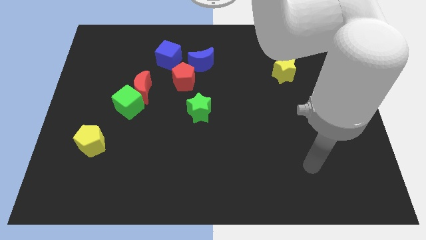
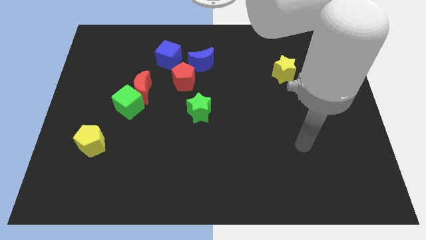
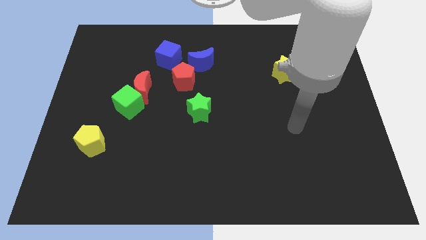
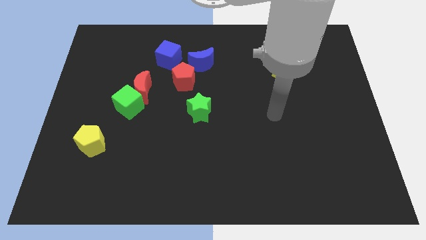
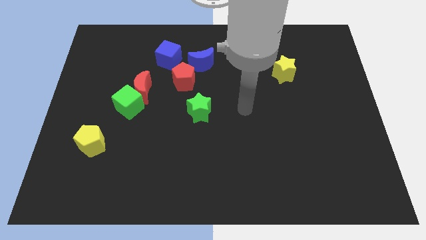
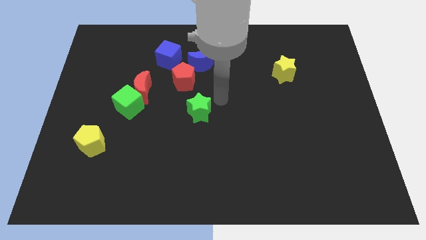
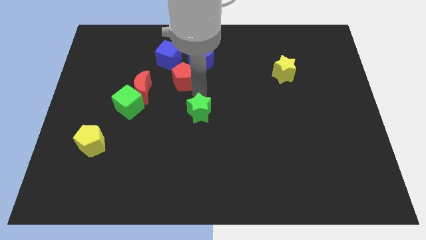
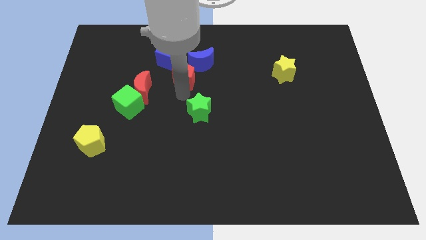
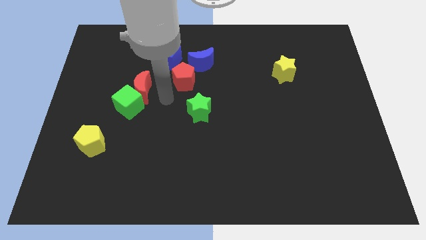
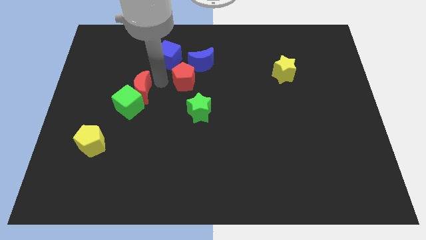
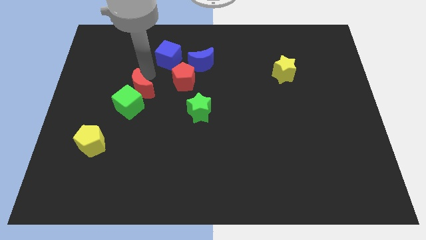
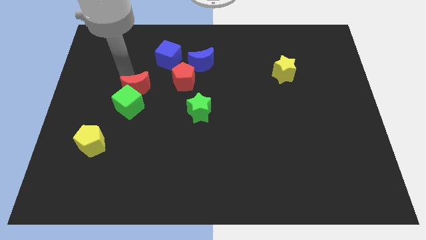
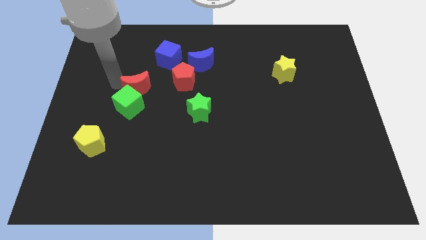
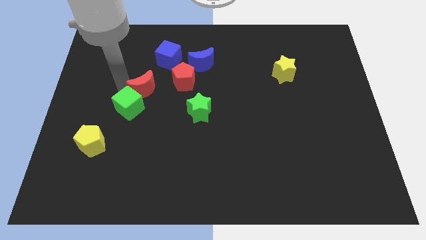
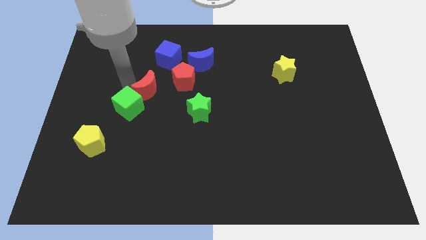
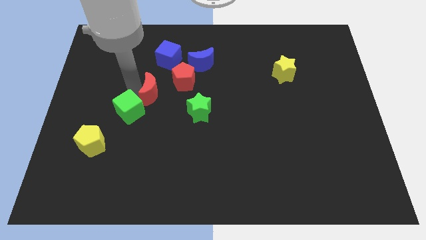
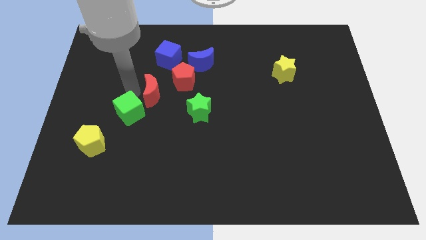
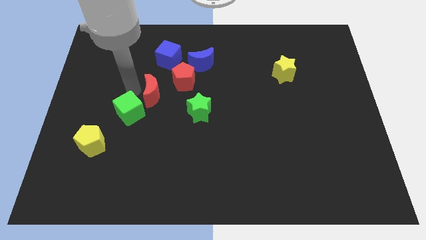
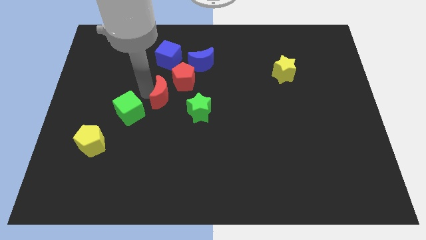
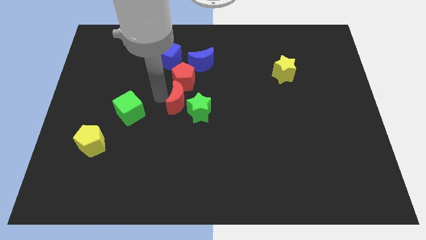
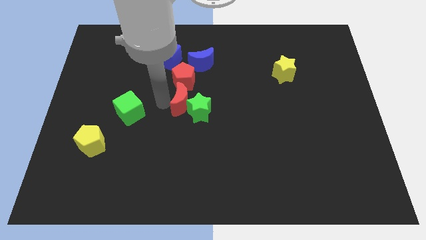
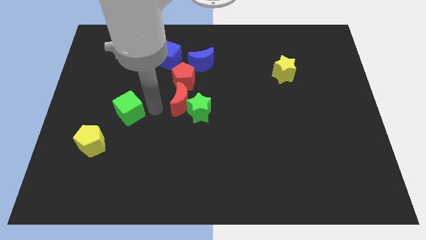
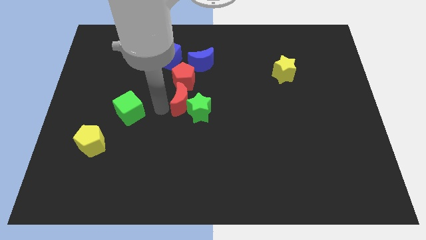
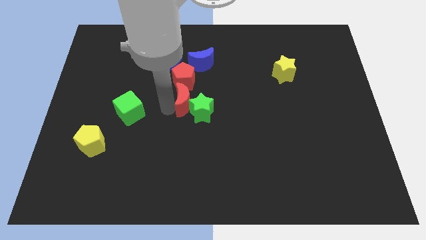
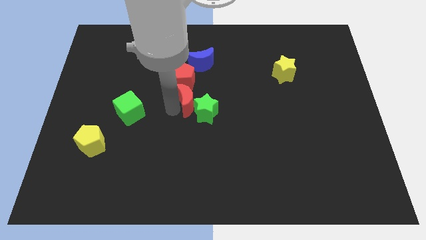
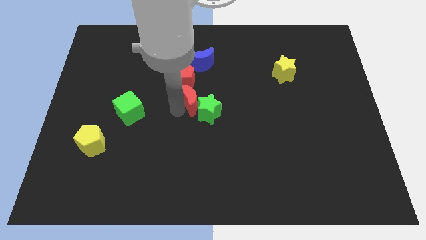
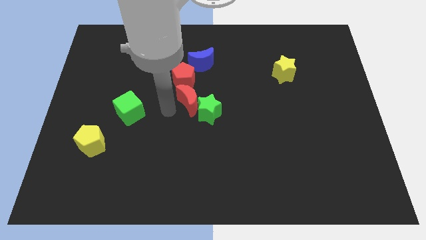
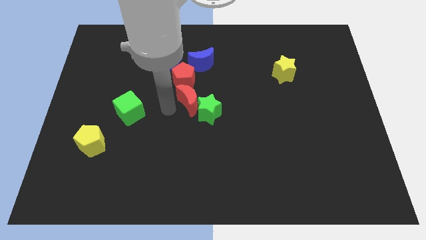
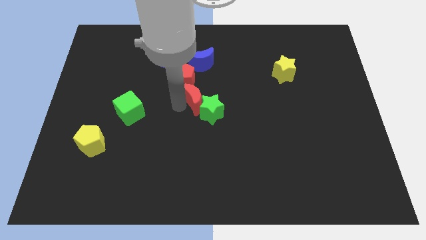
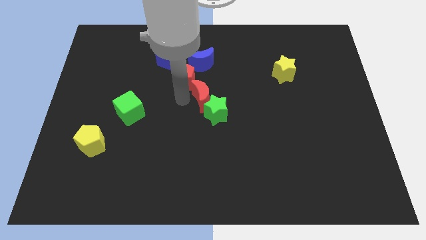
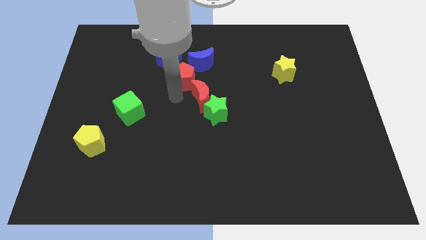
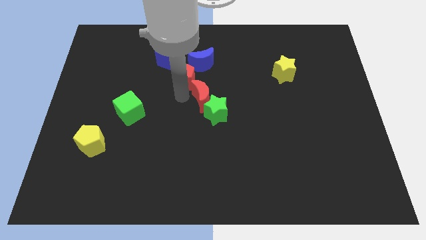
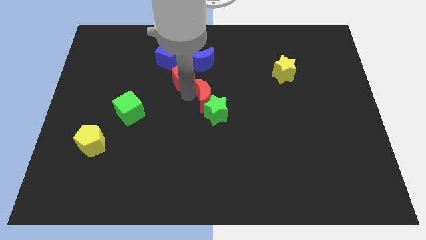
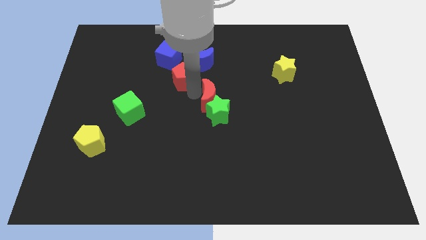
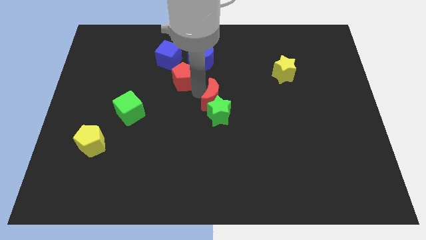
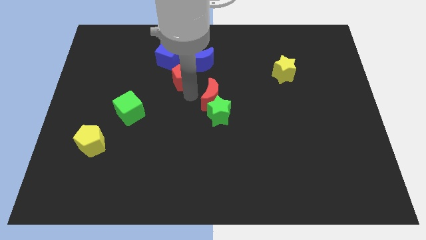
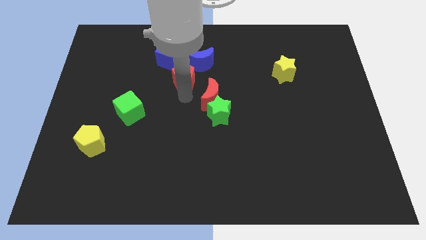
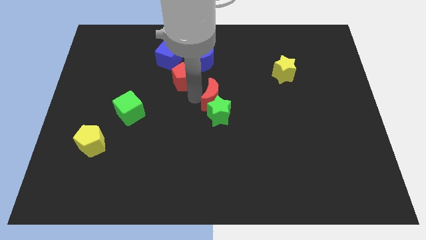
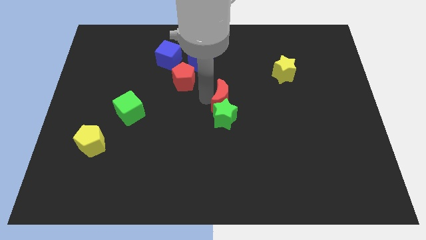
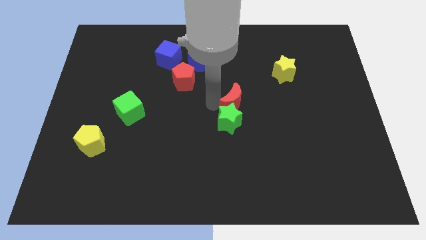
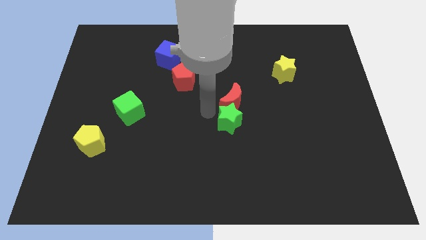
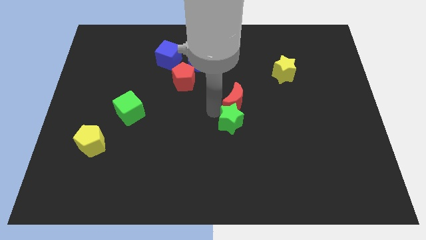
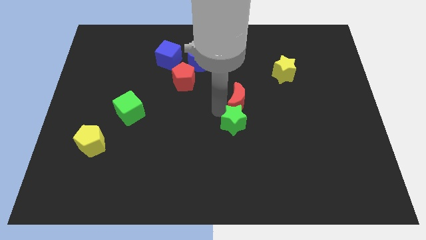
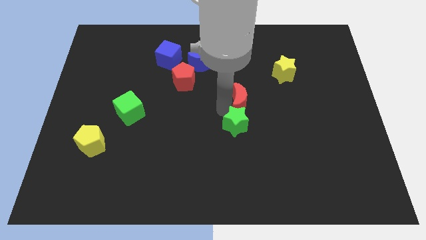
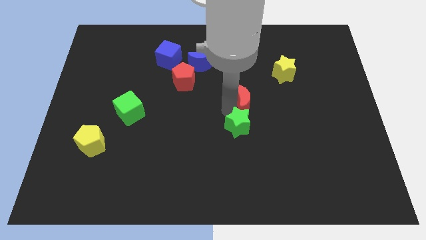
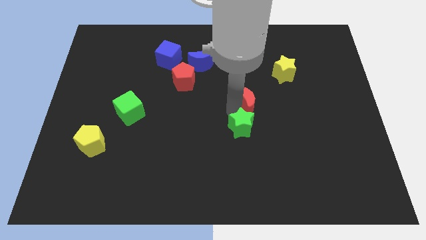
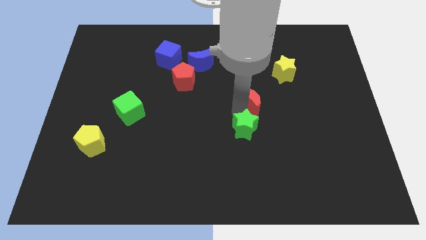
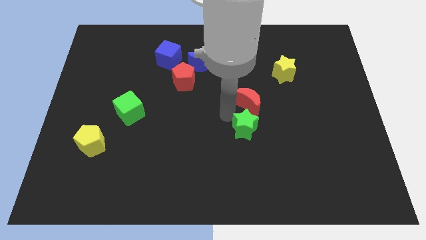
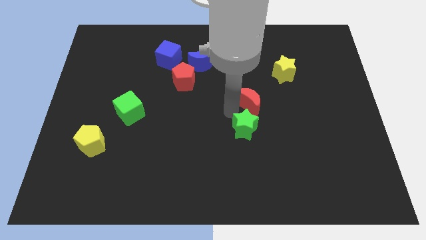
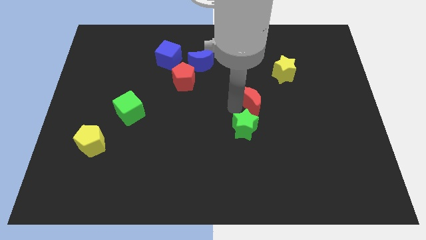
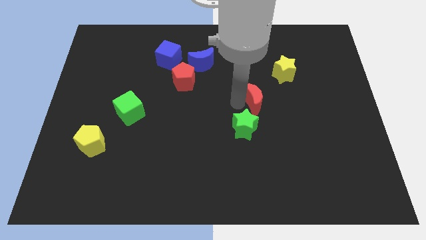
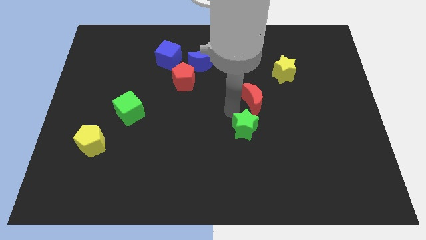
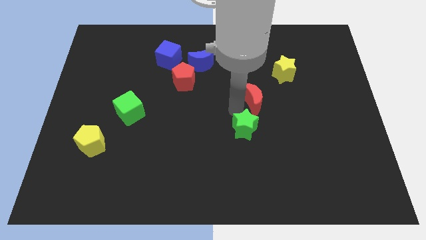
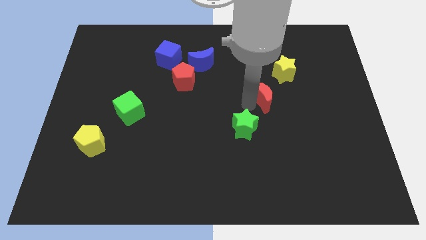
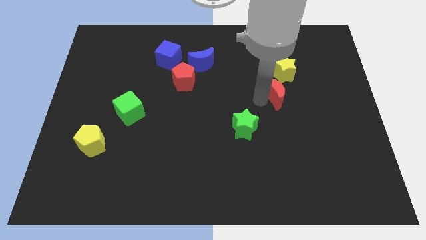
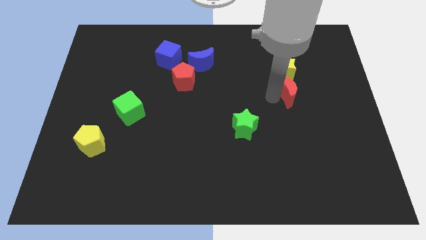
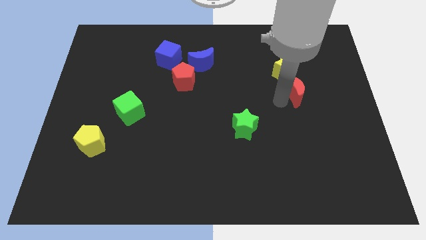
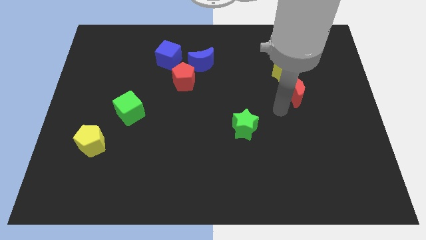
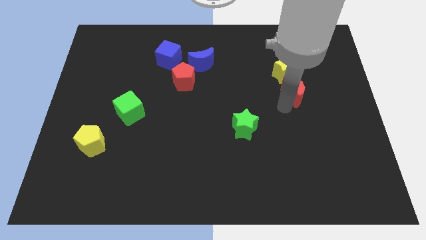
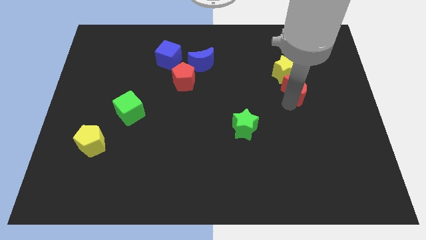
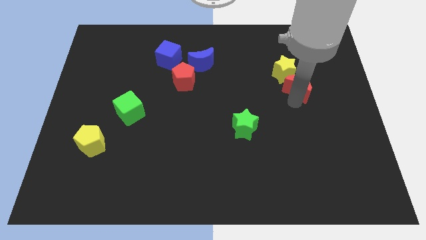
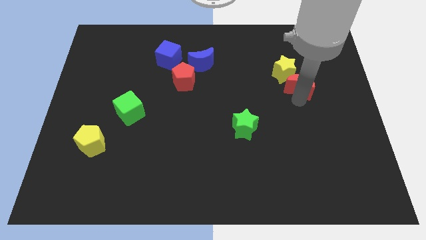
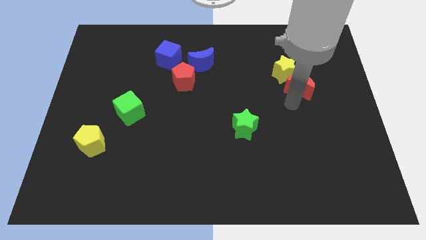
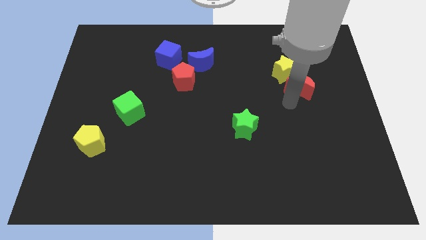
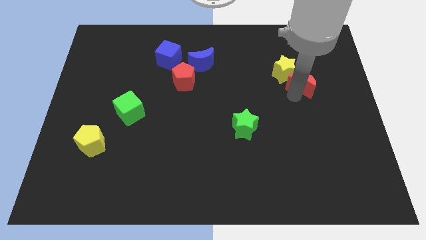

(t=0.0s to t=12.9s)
push the red moon right of the yellow star
